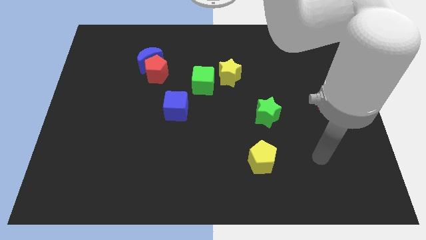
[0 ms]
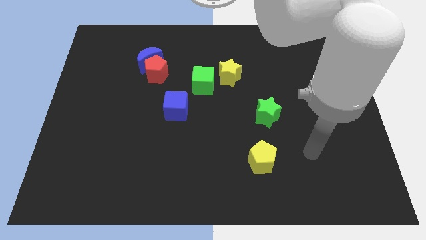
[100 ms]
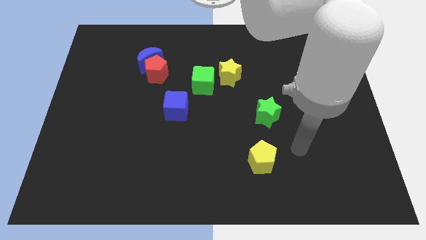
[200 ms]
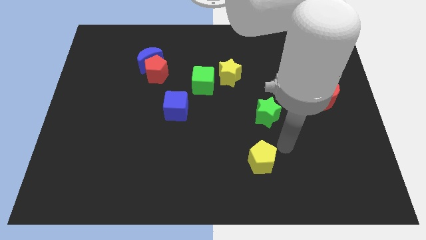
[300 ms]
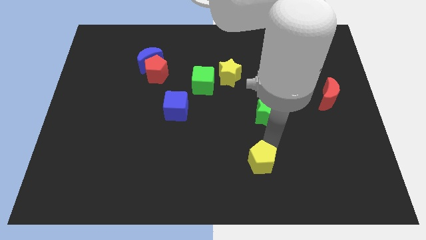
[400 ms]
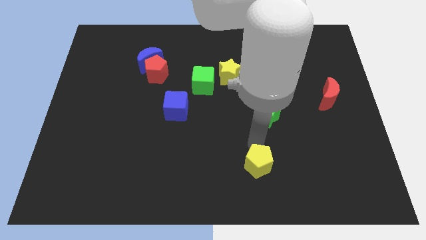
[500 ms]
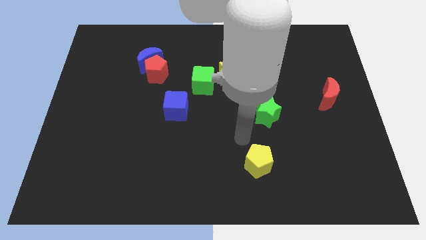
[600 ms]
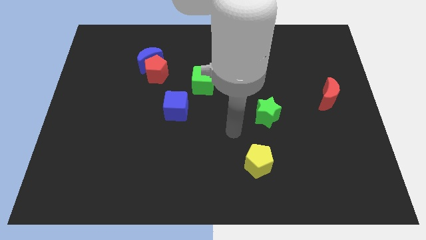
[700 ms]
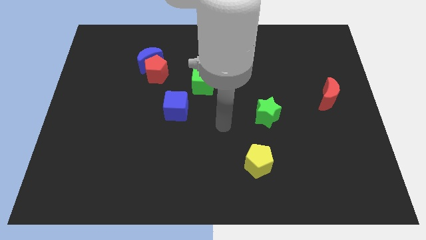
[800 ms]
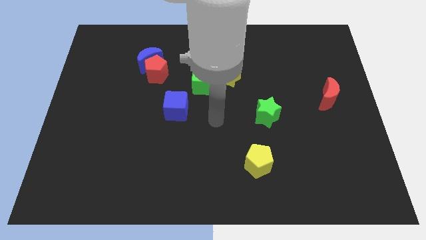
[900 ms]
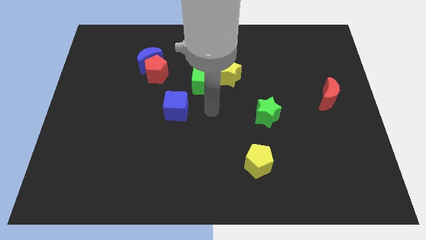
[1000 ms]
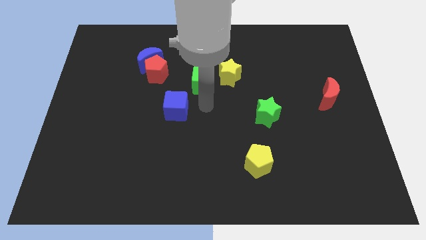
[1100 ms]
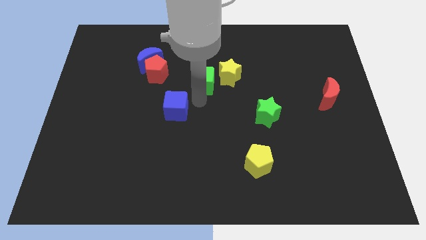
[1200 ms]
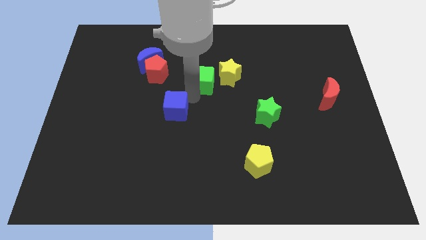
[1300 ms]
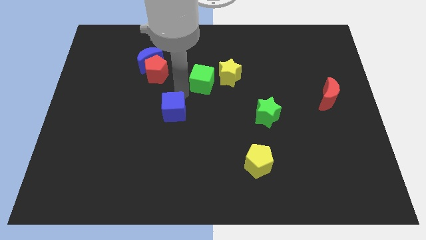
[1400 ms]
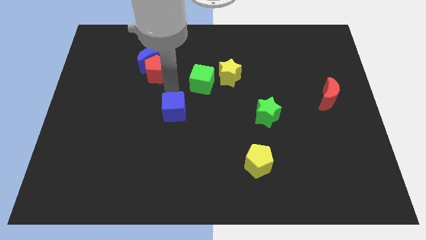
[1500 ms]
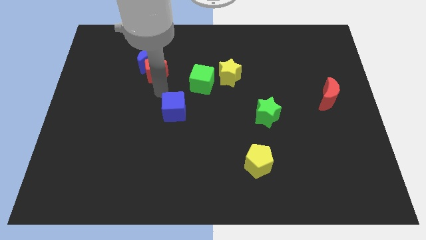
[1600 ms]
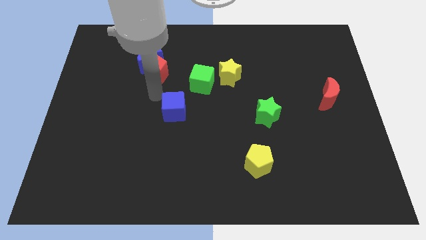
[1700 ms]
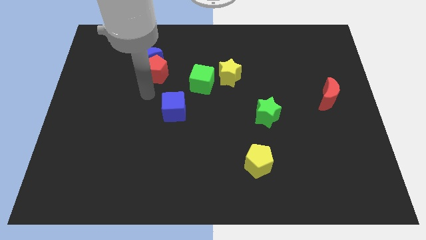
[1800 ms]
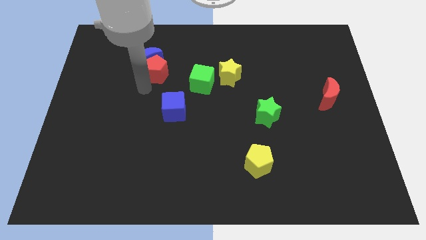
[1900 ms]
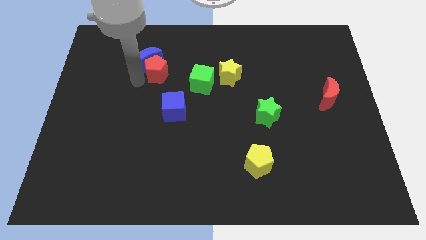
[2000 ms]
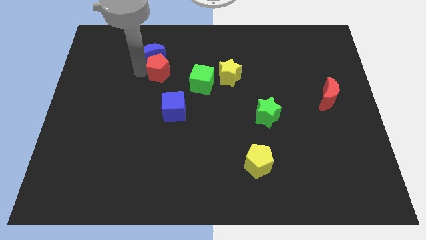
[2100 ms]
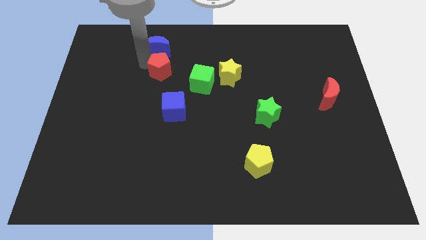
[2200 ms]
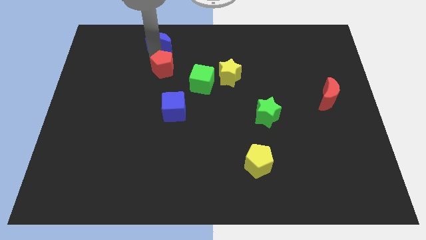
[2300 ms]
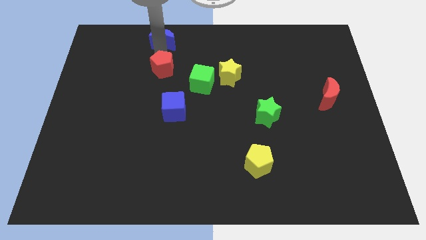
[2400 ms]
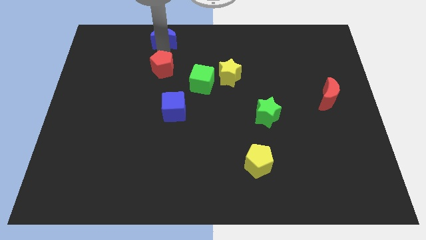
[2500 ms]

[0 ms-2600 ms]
separate the red pentagon from the blue moon

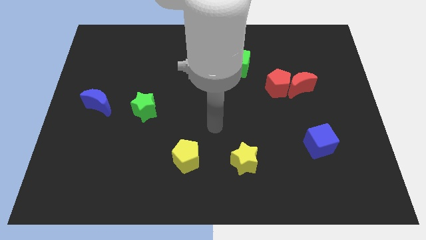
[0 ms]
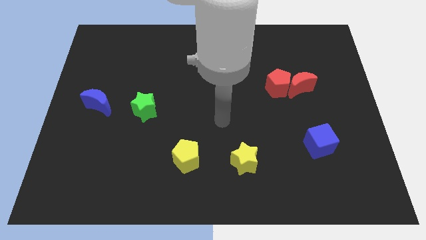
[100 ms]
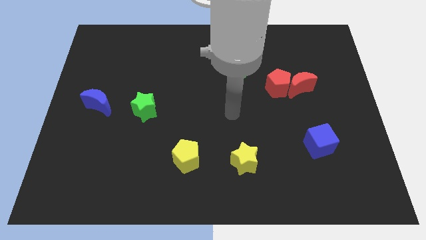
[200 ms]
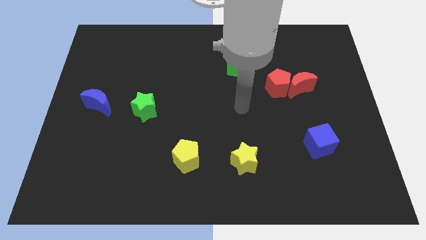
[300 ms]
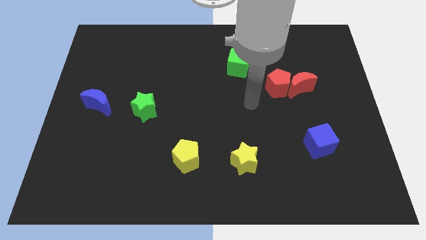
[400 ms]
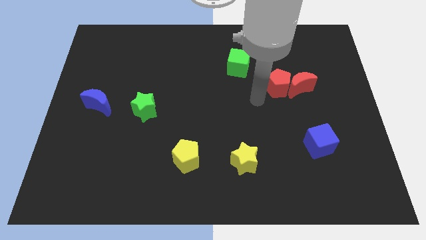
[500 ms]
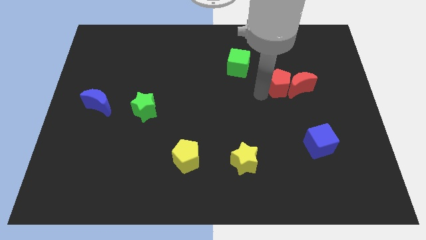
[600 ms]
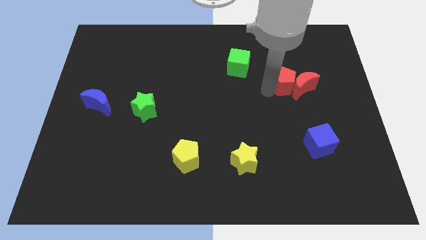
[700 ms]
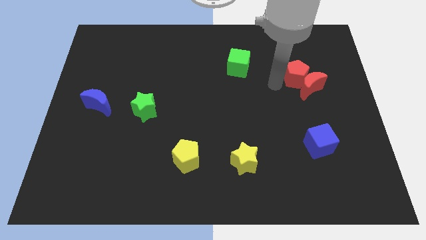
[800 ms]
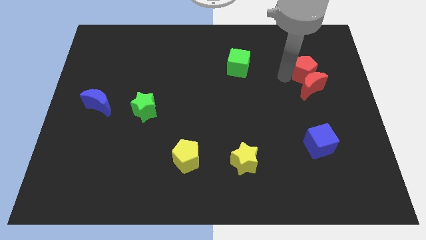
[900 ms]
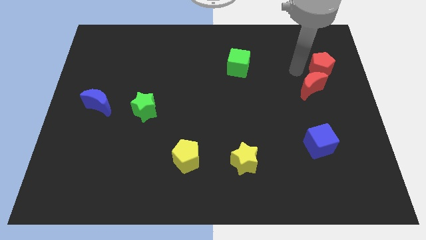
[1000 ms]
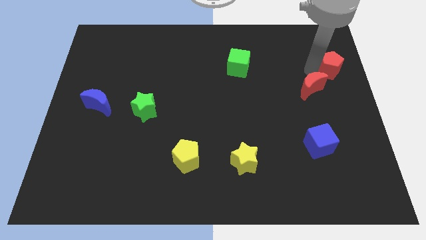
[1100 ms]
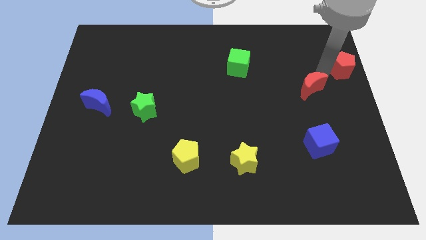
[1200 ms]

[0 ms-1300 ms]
move the red moon away from the red pentagon

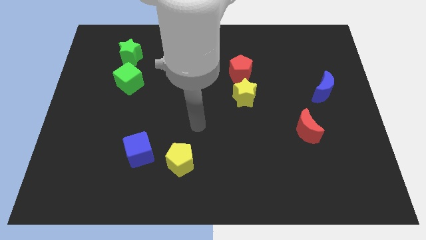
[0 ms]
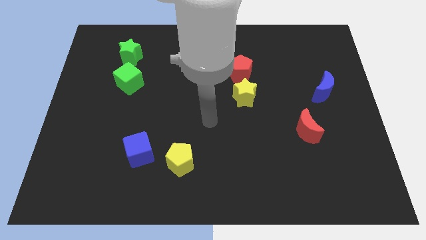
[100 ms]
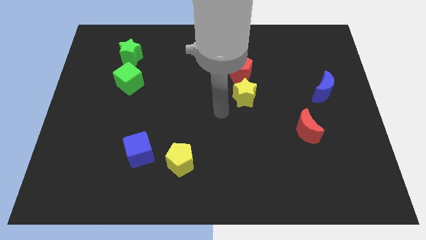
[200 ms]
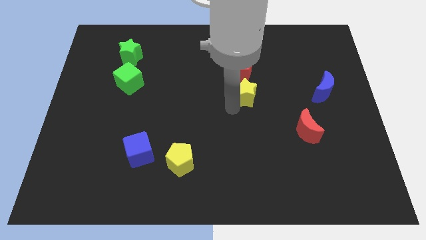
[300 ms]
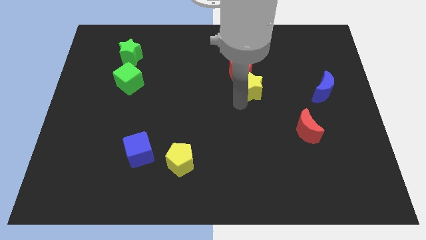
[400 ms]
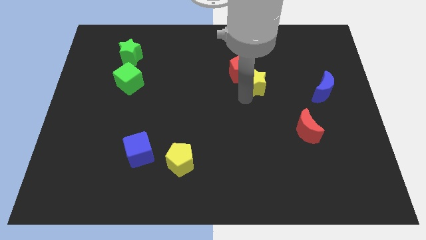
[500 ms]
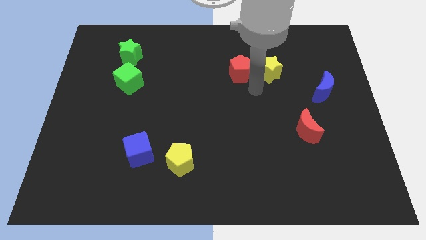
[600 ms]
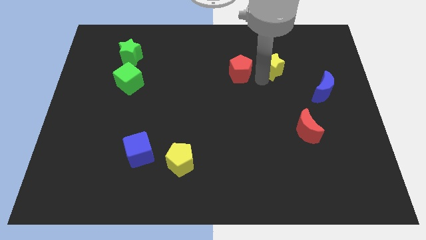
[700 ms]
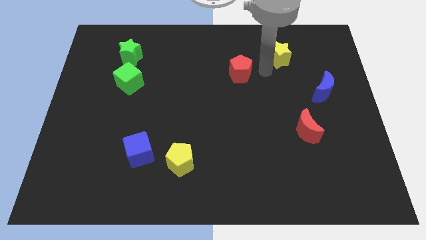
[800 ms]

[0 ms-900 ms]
separate the red pentagon from the yellow star

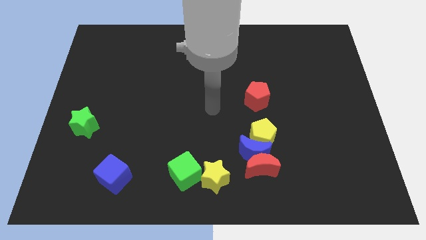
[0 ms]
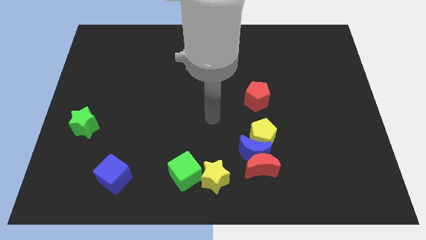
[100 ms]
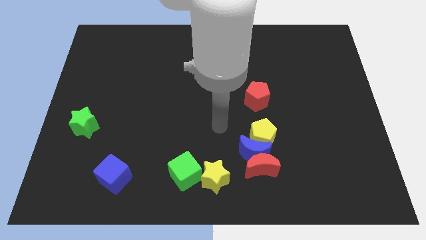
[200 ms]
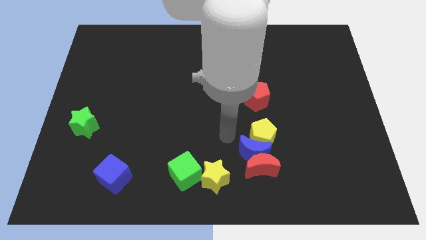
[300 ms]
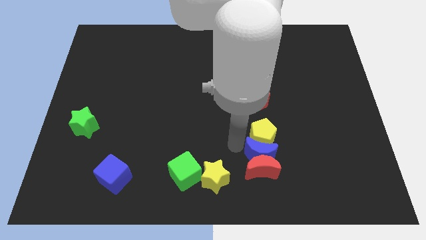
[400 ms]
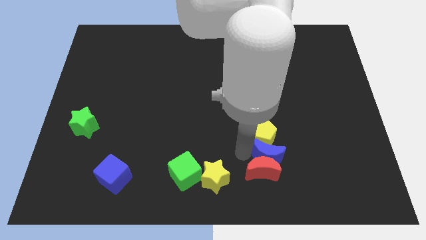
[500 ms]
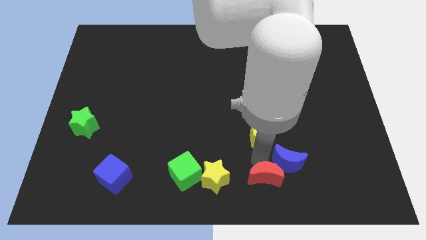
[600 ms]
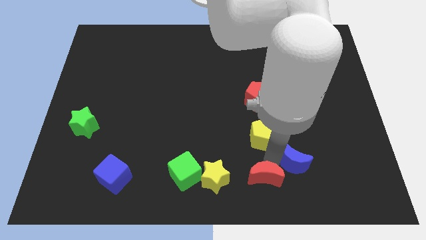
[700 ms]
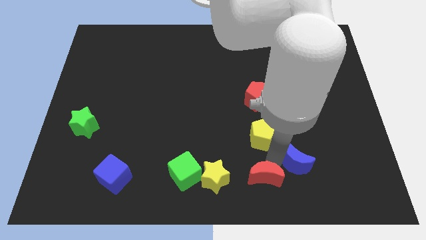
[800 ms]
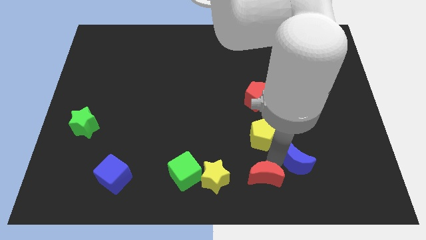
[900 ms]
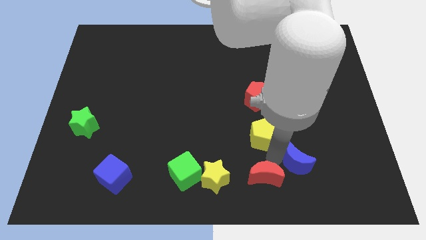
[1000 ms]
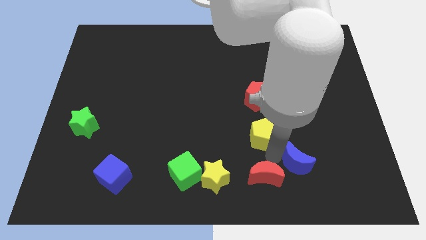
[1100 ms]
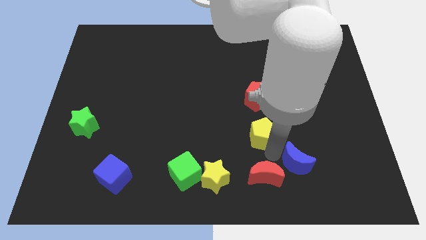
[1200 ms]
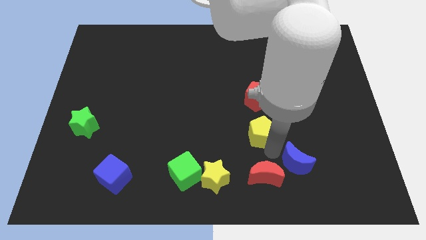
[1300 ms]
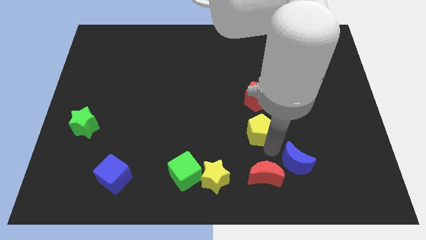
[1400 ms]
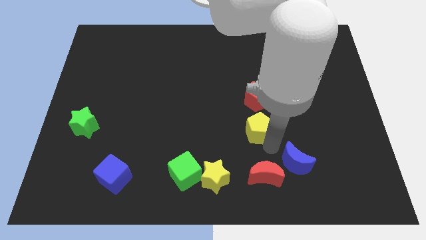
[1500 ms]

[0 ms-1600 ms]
move the yellow pentagon away from the blue moon and red moon

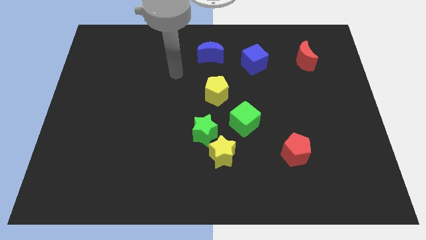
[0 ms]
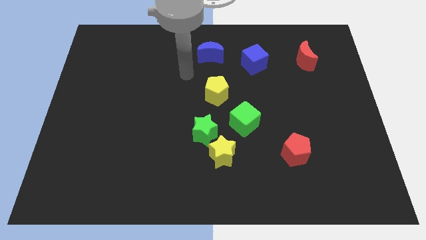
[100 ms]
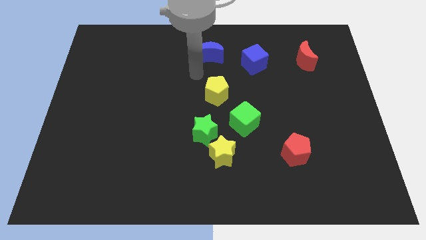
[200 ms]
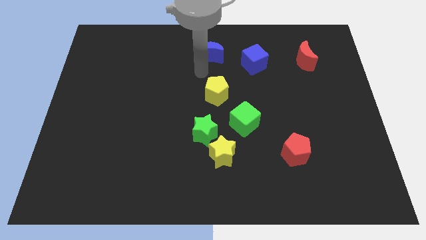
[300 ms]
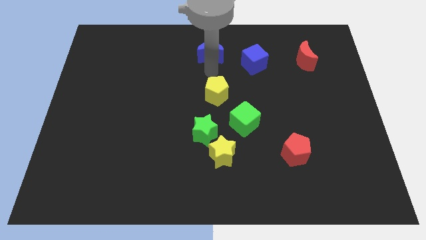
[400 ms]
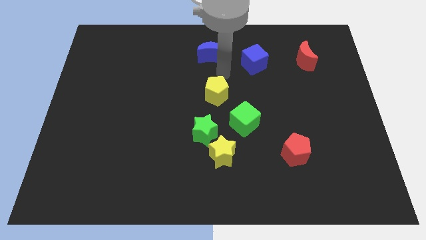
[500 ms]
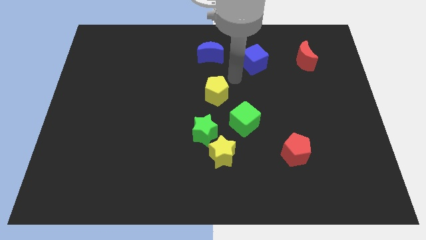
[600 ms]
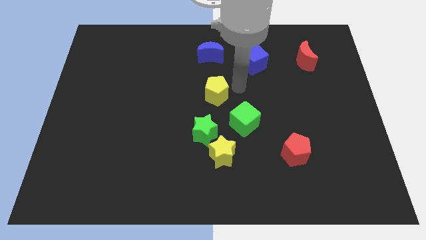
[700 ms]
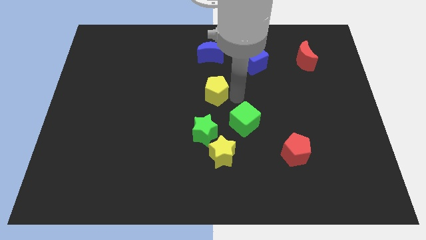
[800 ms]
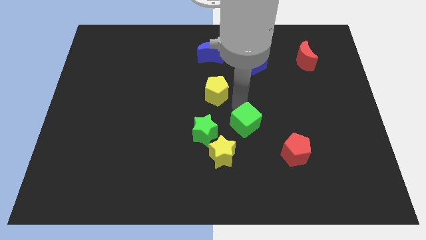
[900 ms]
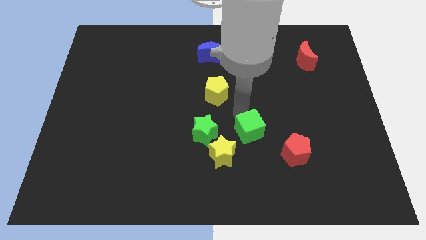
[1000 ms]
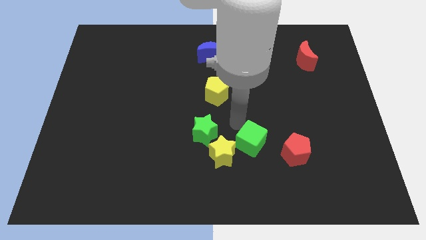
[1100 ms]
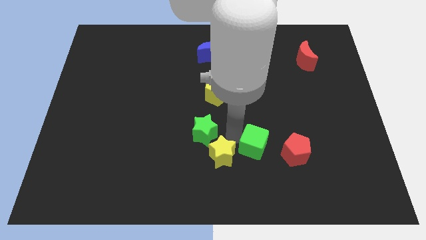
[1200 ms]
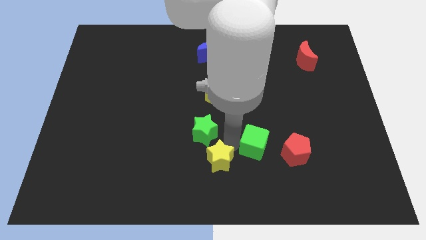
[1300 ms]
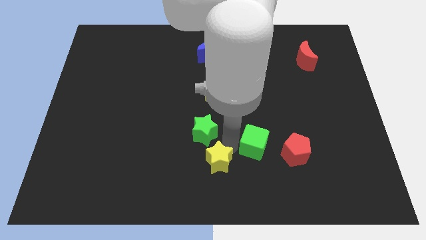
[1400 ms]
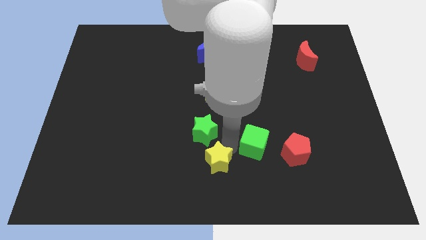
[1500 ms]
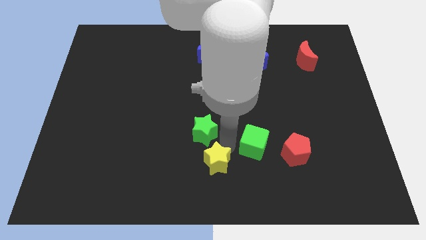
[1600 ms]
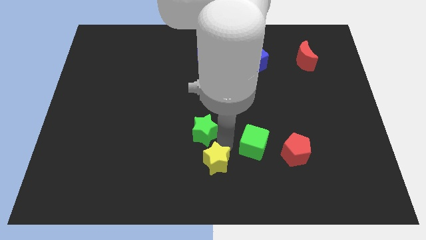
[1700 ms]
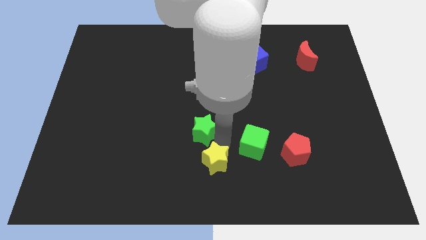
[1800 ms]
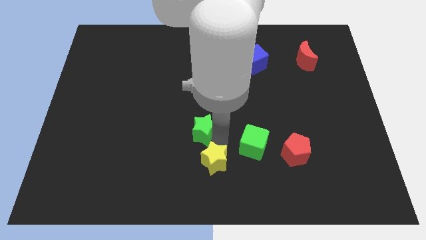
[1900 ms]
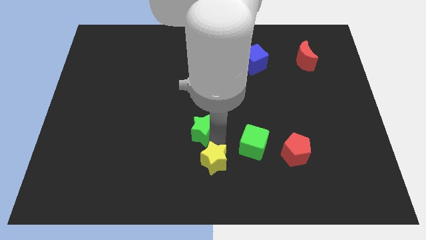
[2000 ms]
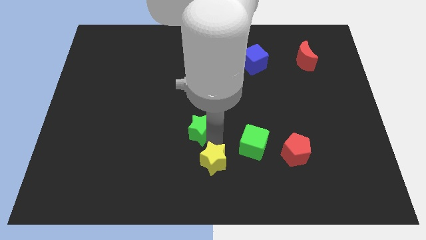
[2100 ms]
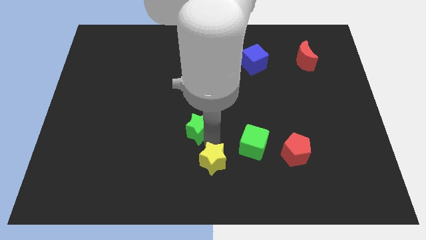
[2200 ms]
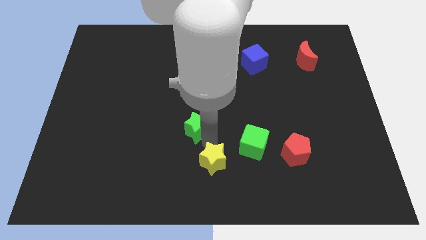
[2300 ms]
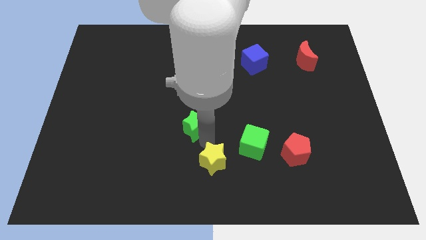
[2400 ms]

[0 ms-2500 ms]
move the green star away from the yellow star and green cube

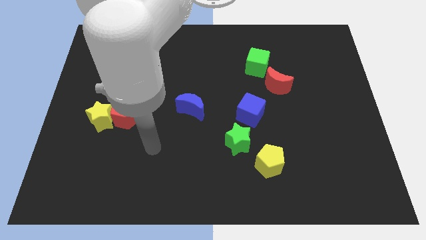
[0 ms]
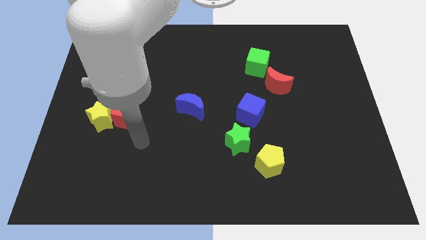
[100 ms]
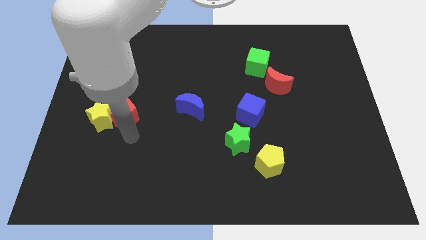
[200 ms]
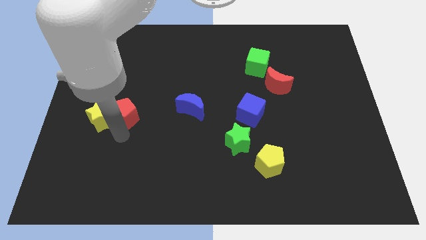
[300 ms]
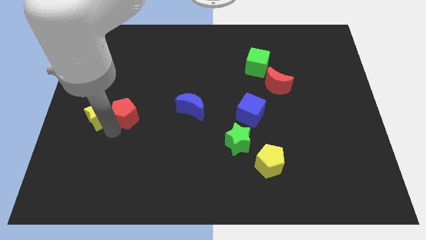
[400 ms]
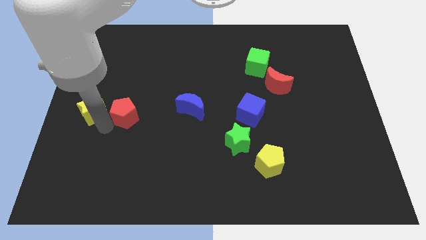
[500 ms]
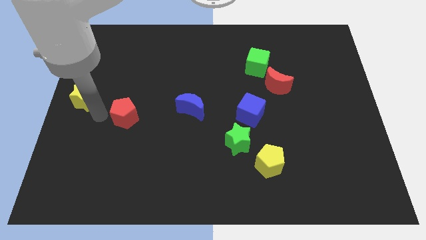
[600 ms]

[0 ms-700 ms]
move the red pentagon away from the yellow star
